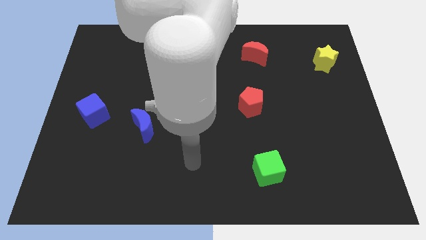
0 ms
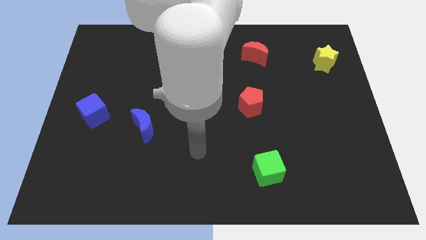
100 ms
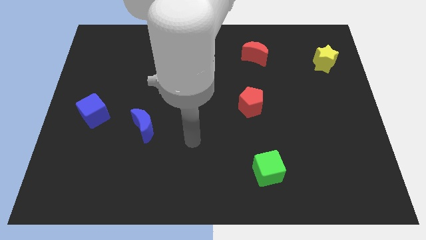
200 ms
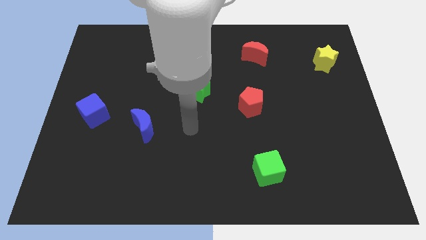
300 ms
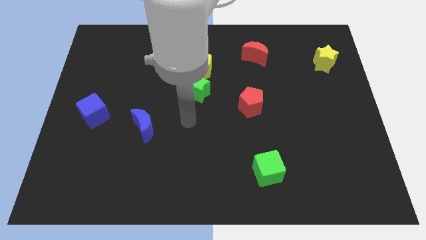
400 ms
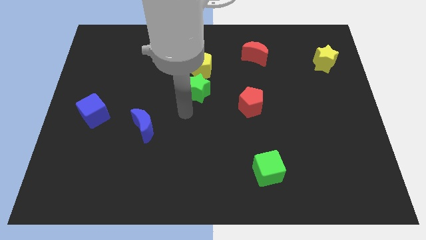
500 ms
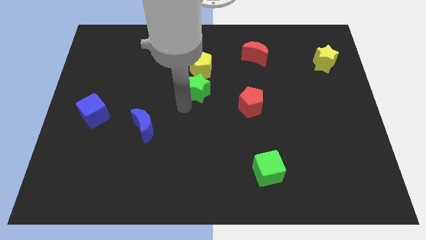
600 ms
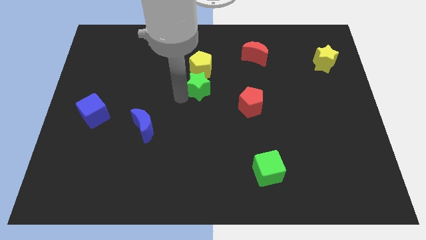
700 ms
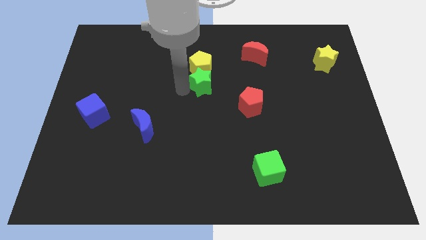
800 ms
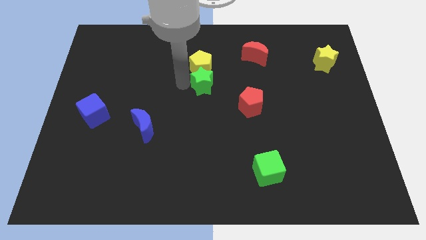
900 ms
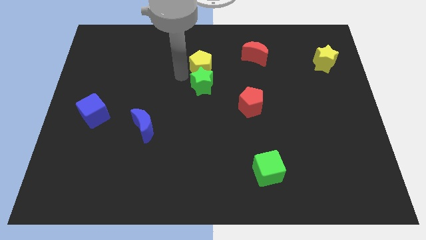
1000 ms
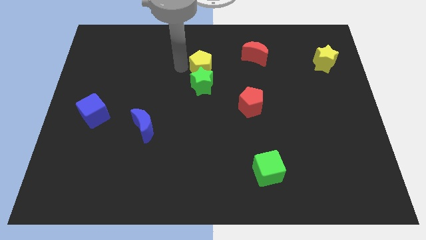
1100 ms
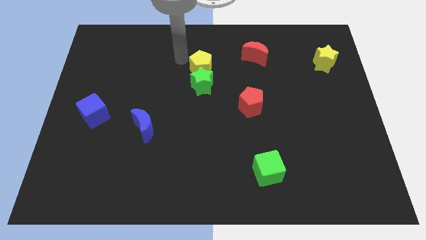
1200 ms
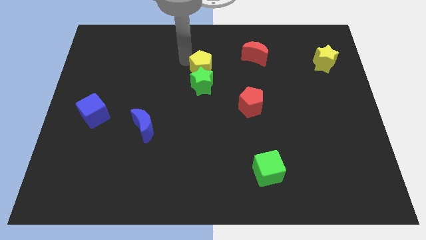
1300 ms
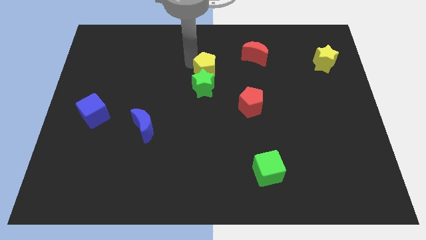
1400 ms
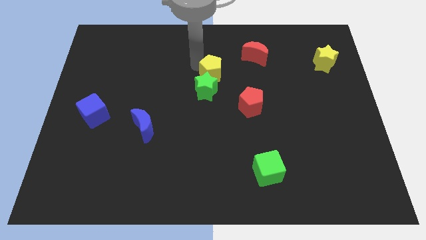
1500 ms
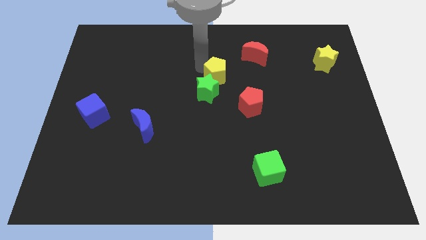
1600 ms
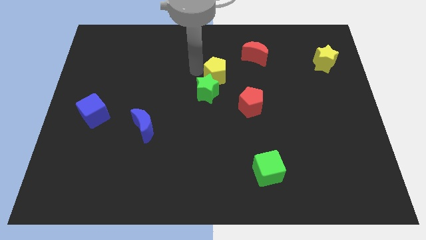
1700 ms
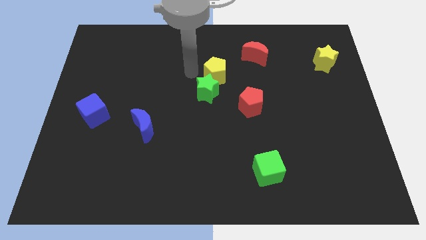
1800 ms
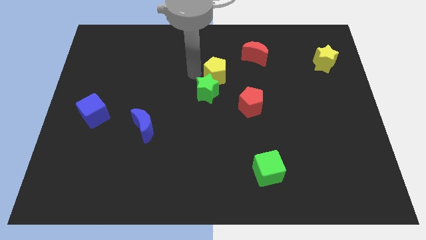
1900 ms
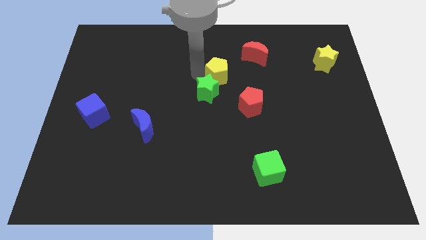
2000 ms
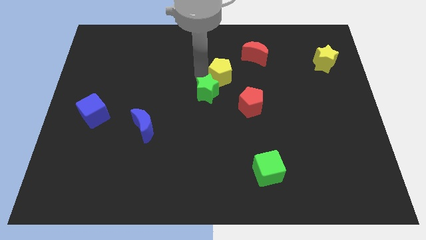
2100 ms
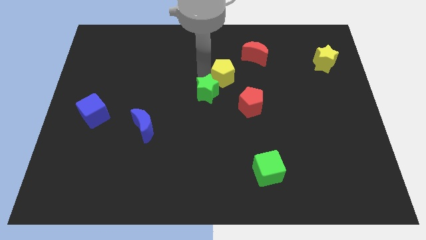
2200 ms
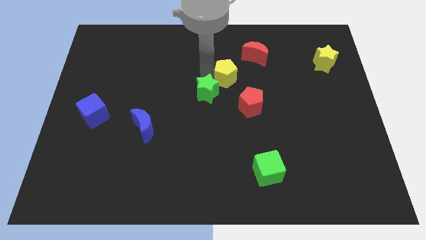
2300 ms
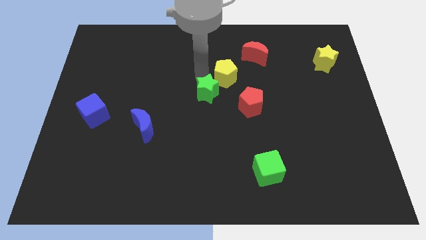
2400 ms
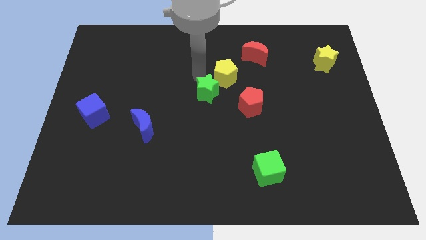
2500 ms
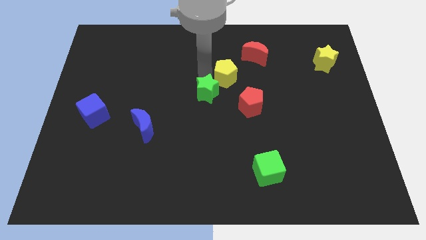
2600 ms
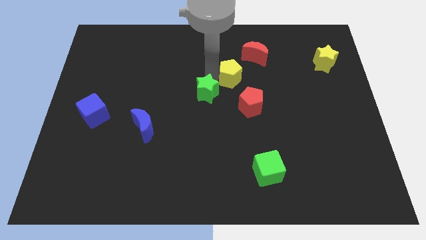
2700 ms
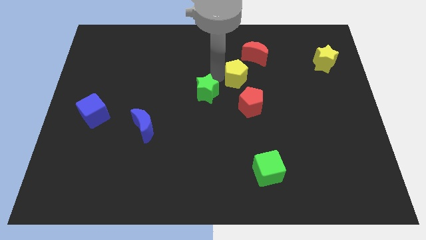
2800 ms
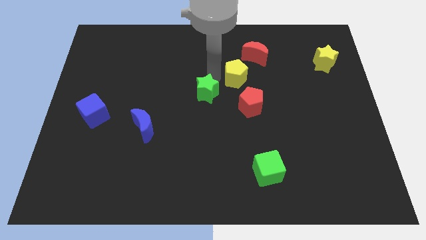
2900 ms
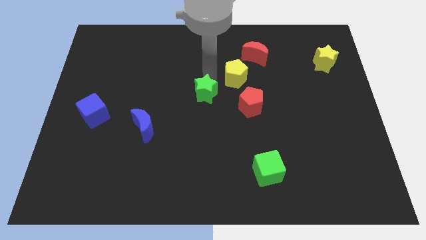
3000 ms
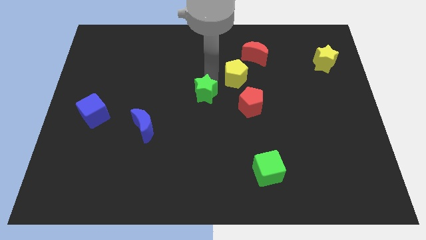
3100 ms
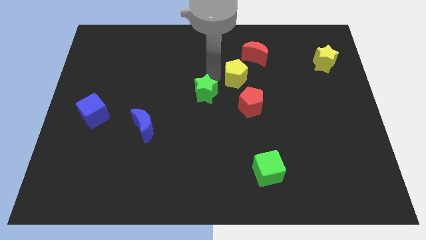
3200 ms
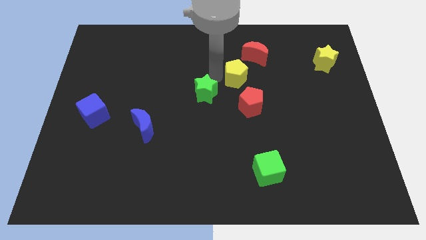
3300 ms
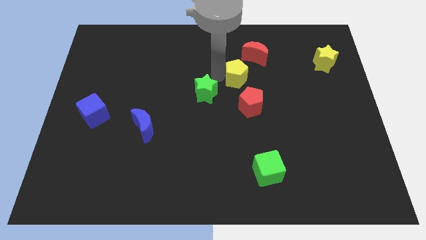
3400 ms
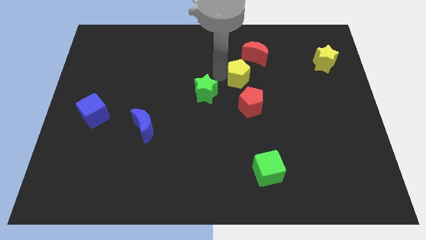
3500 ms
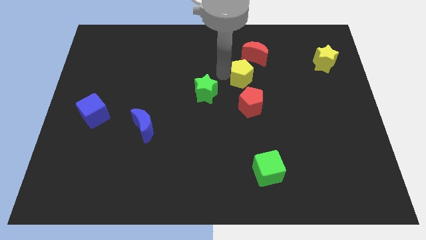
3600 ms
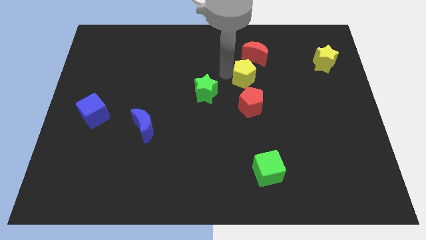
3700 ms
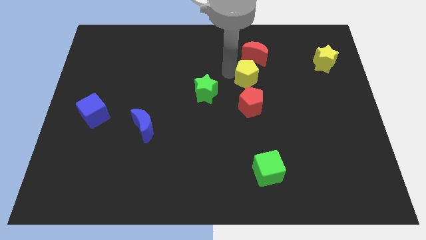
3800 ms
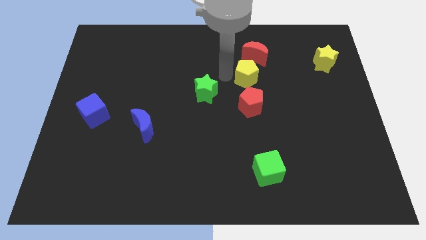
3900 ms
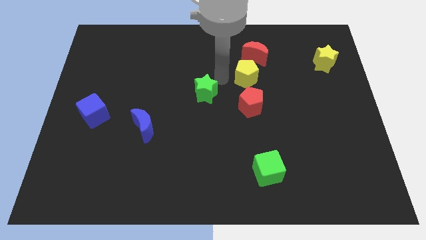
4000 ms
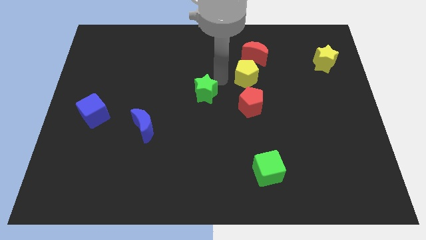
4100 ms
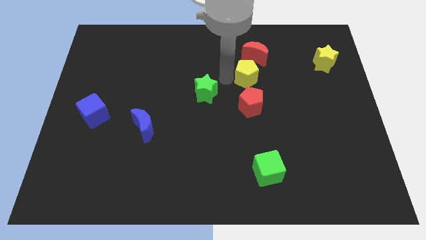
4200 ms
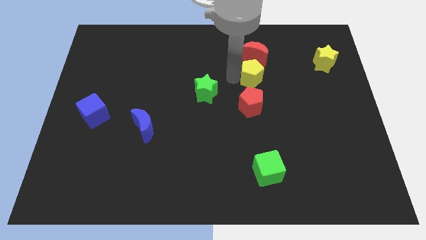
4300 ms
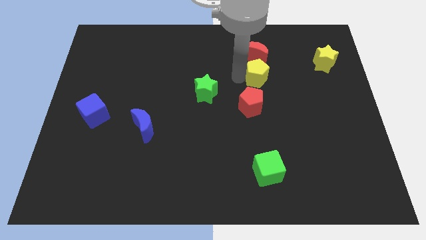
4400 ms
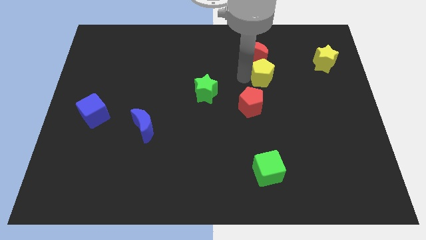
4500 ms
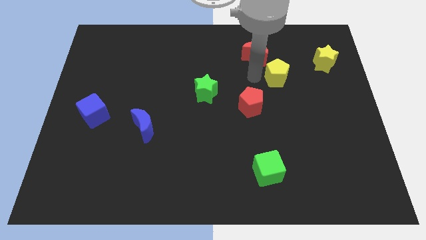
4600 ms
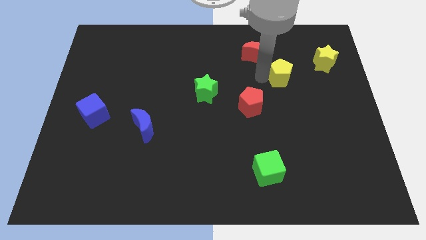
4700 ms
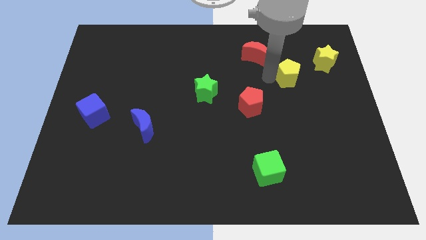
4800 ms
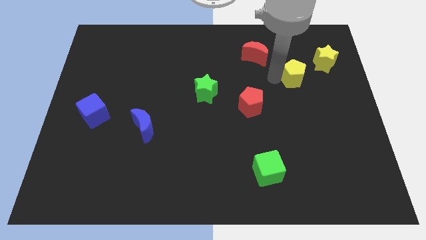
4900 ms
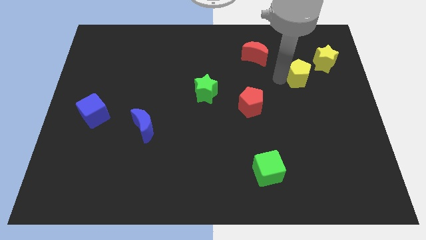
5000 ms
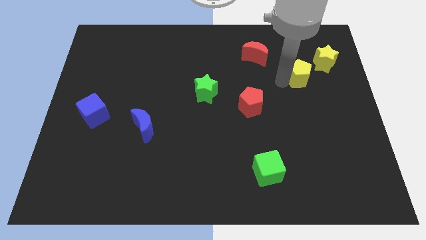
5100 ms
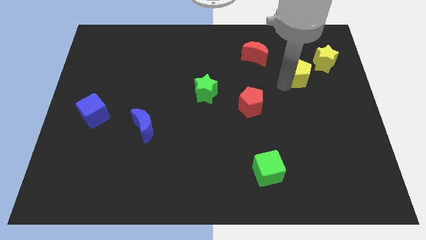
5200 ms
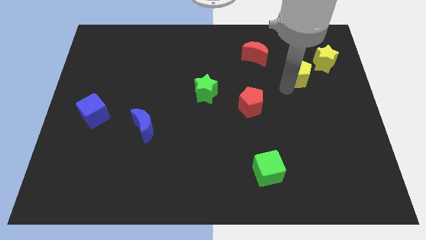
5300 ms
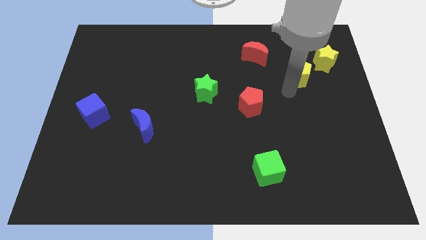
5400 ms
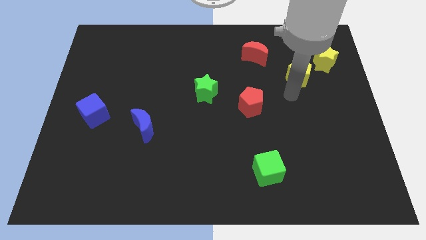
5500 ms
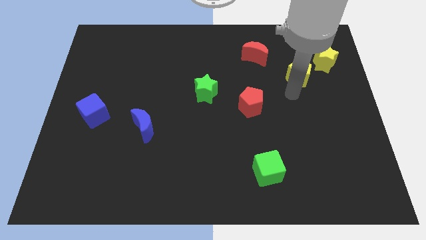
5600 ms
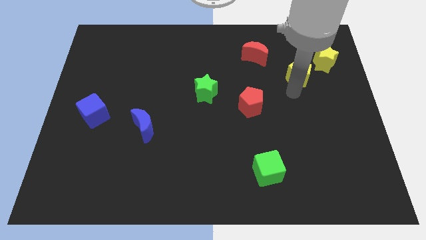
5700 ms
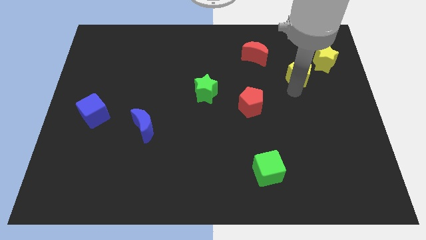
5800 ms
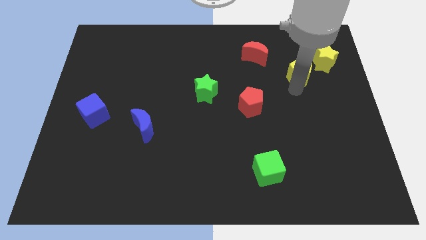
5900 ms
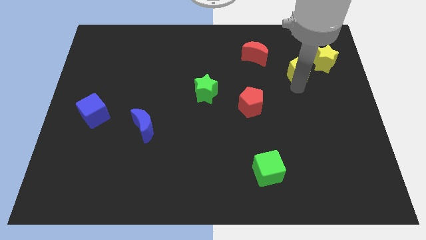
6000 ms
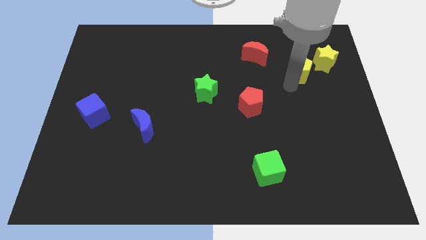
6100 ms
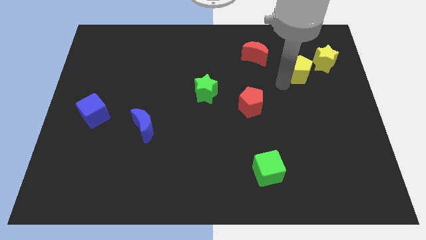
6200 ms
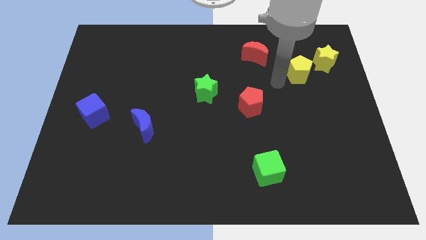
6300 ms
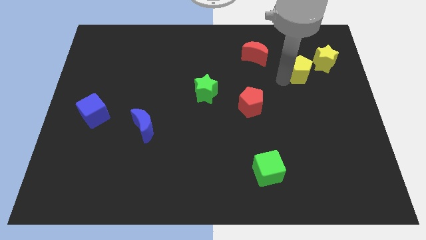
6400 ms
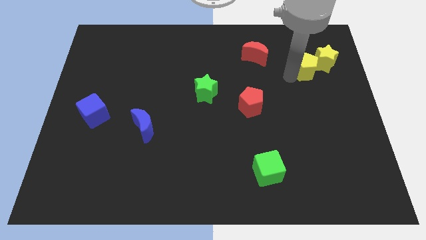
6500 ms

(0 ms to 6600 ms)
put the yellow pentagon towards the yellow star

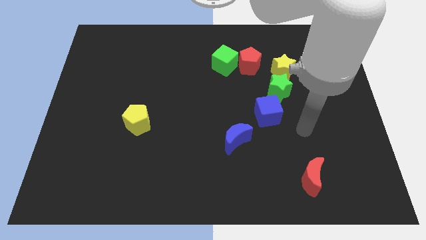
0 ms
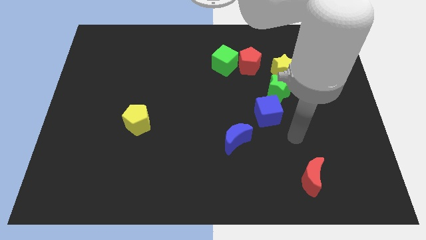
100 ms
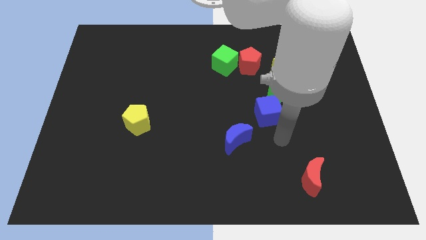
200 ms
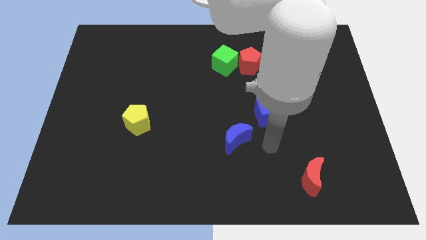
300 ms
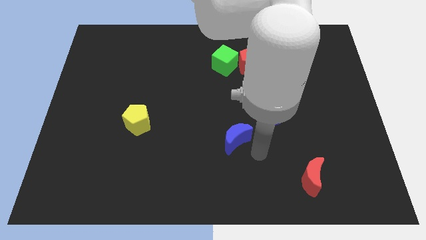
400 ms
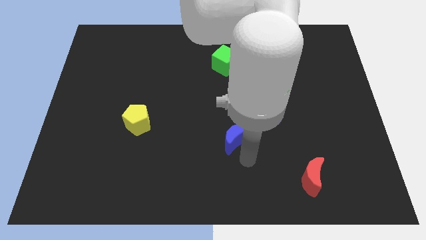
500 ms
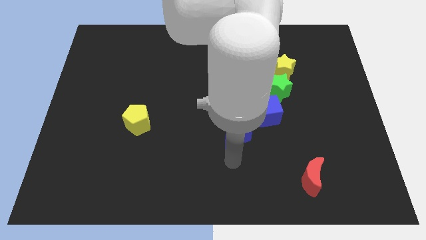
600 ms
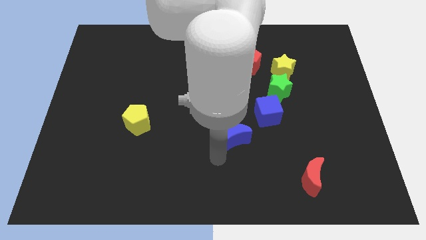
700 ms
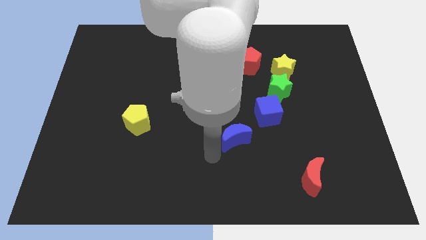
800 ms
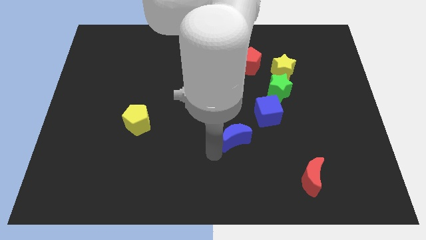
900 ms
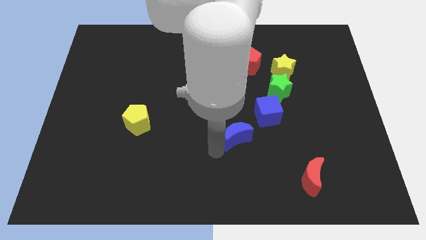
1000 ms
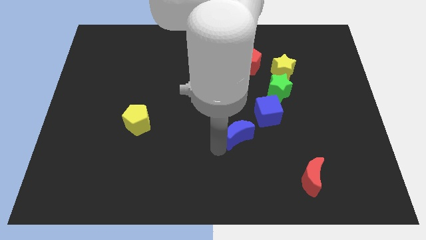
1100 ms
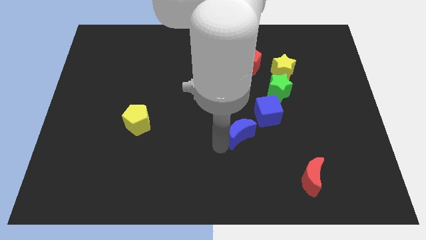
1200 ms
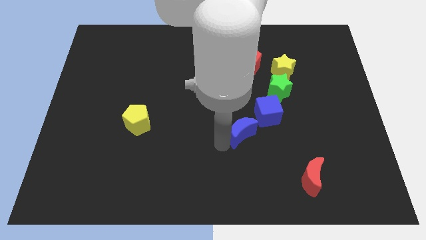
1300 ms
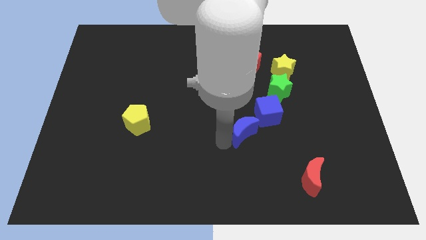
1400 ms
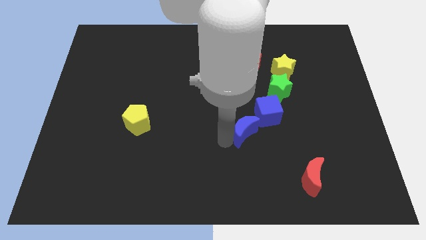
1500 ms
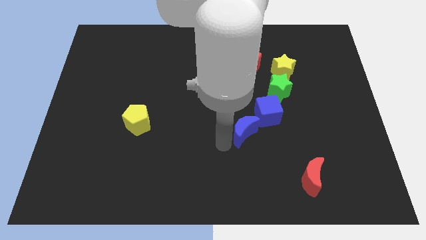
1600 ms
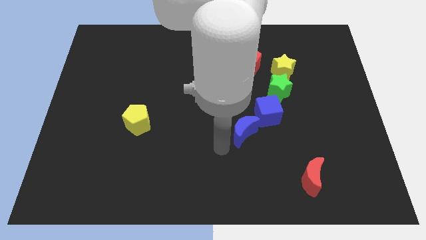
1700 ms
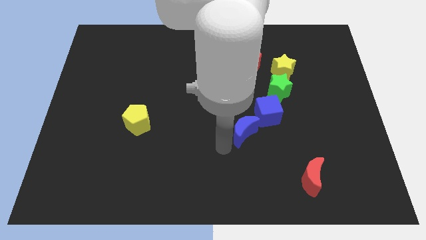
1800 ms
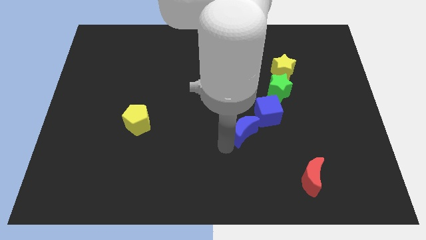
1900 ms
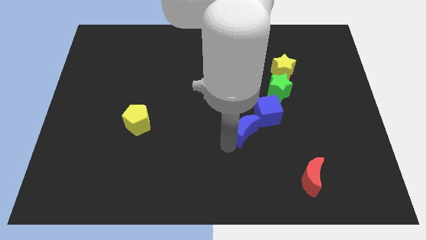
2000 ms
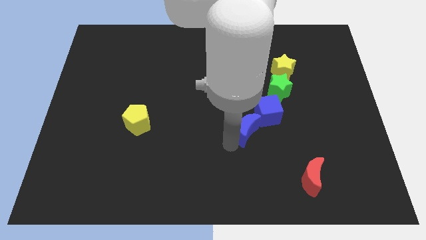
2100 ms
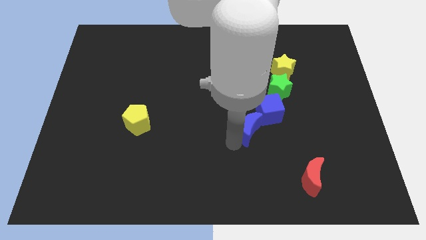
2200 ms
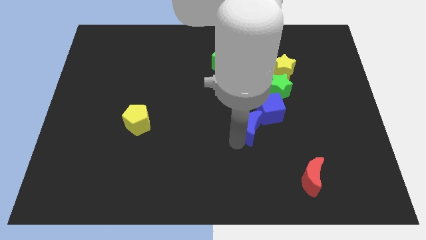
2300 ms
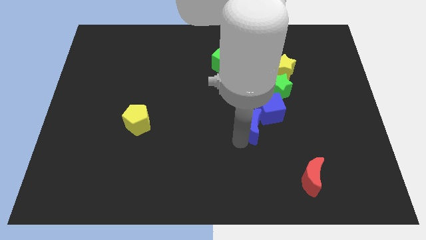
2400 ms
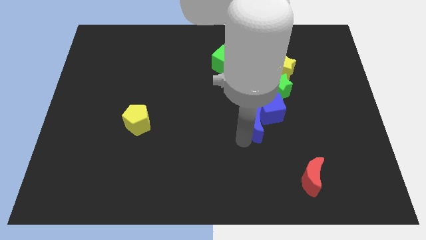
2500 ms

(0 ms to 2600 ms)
push the blue moon to the blue cube
